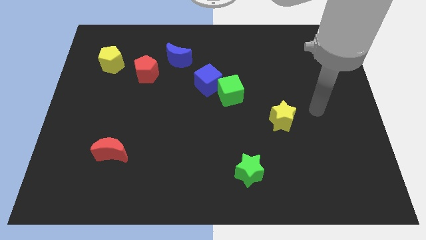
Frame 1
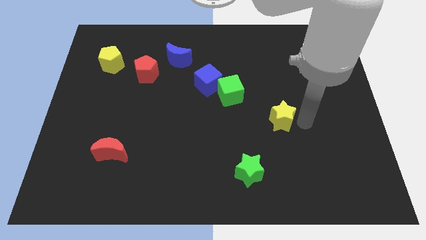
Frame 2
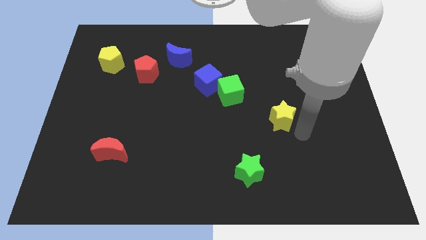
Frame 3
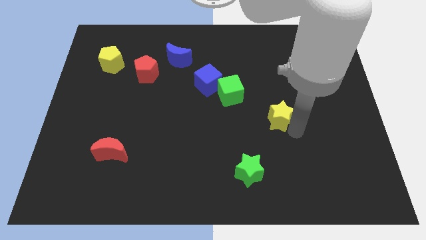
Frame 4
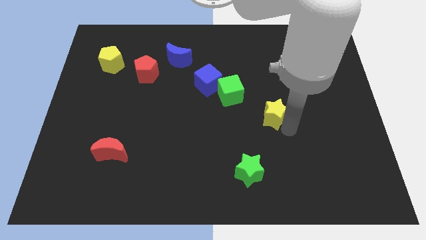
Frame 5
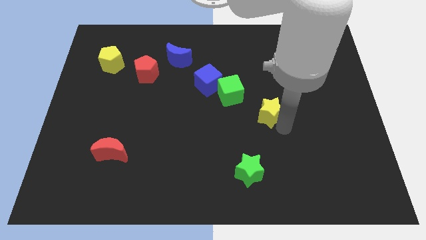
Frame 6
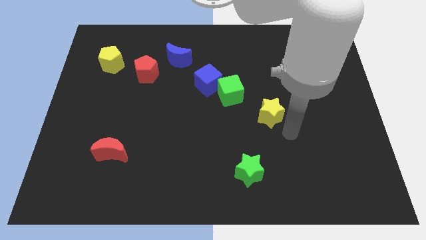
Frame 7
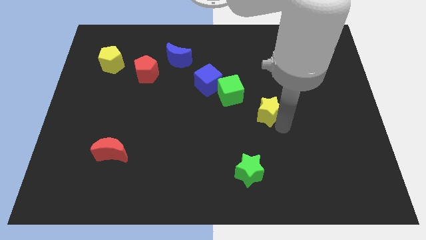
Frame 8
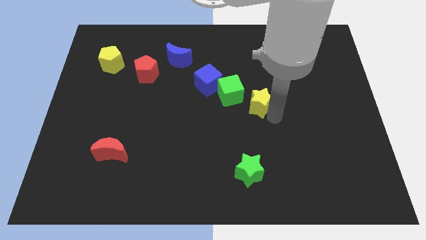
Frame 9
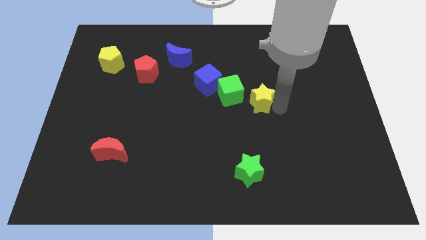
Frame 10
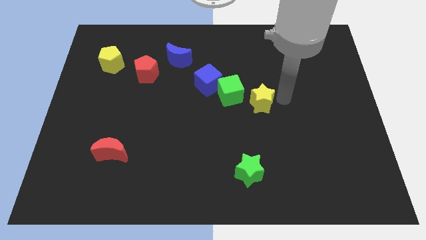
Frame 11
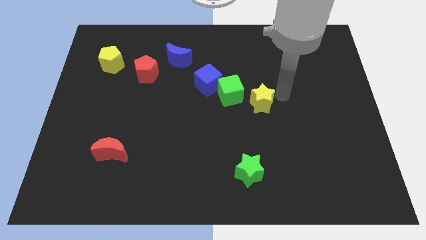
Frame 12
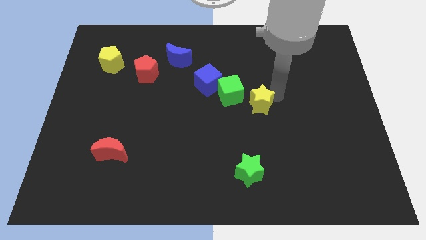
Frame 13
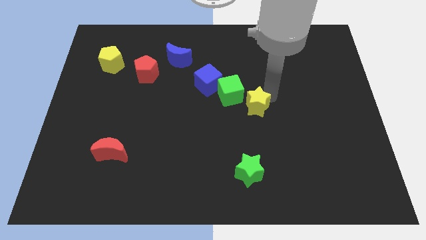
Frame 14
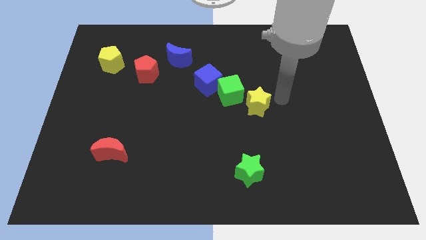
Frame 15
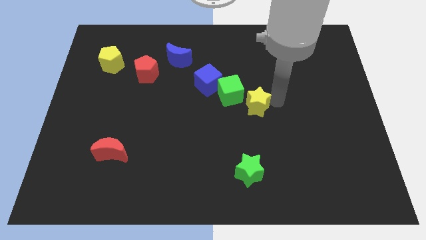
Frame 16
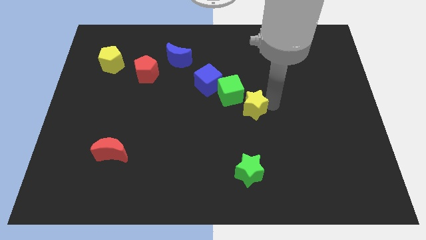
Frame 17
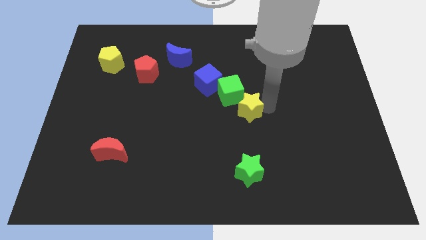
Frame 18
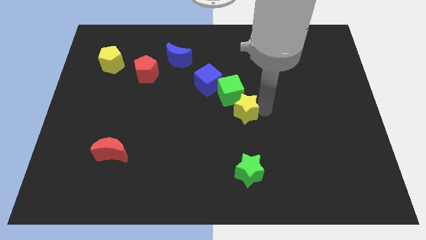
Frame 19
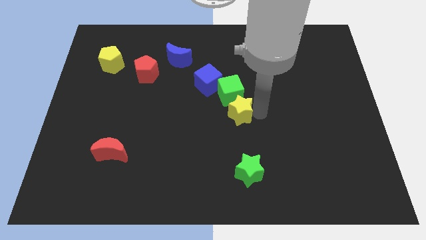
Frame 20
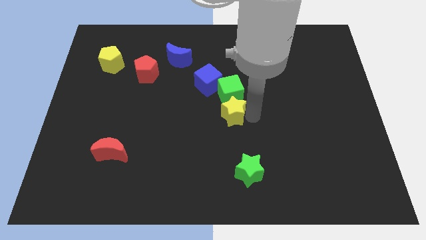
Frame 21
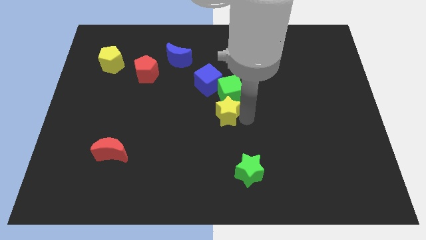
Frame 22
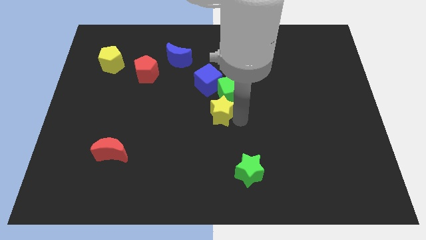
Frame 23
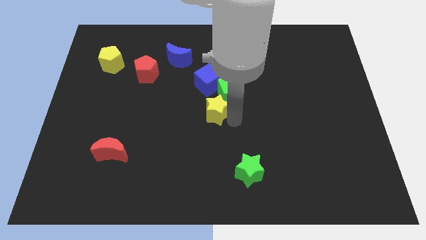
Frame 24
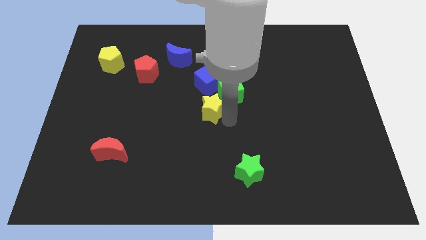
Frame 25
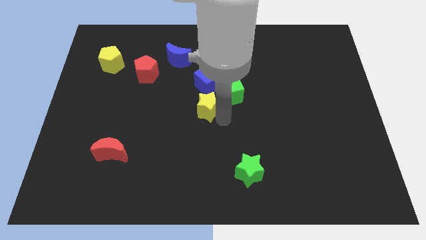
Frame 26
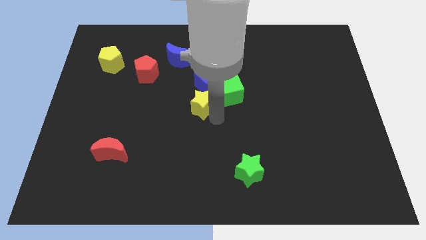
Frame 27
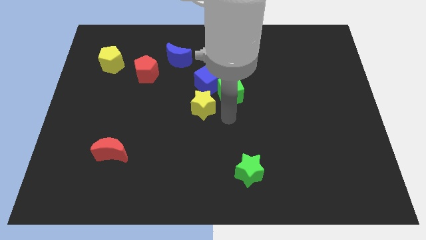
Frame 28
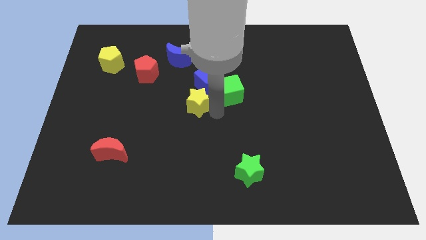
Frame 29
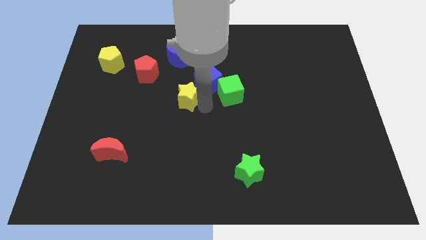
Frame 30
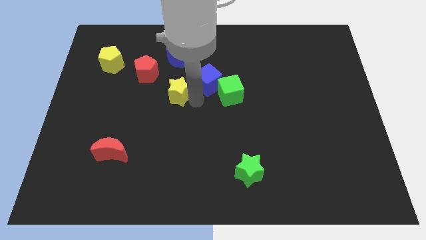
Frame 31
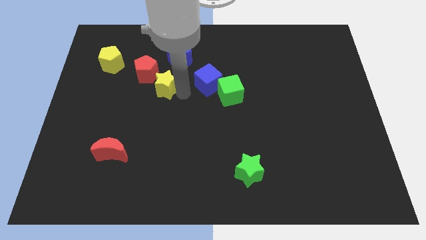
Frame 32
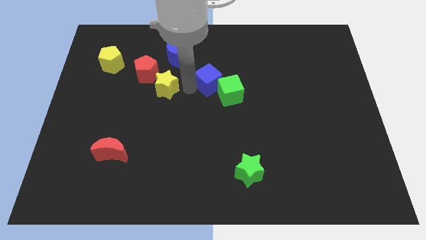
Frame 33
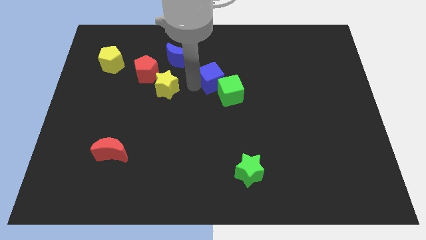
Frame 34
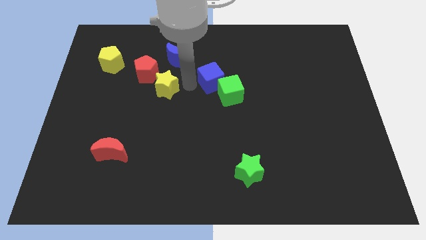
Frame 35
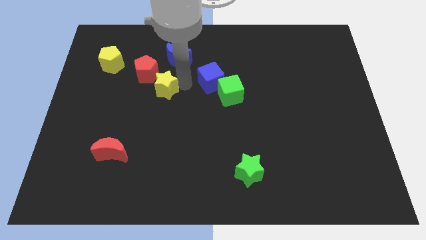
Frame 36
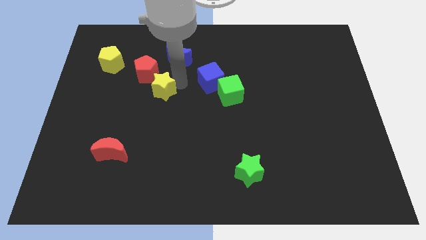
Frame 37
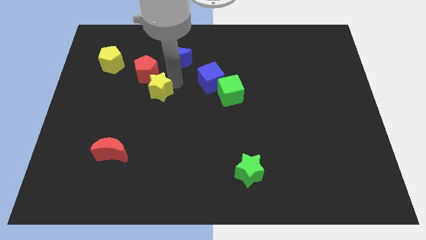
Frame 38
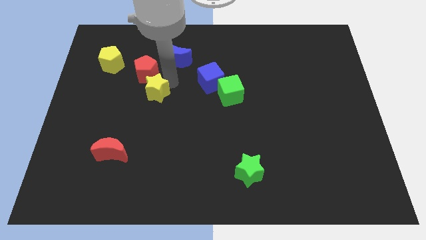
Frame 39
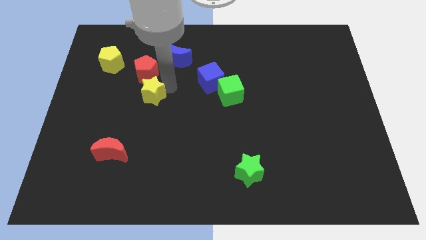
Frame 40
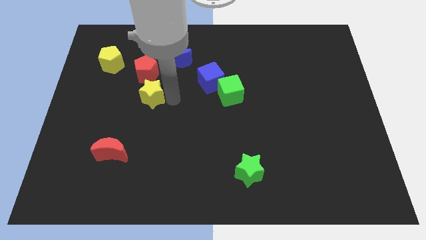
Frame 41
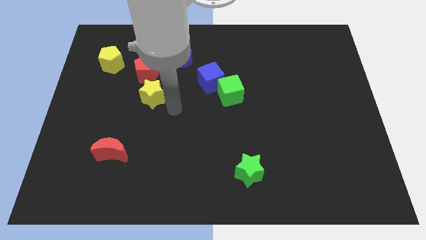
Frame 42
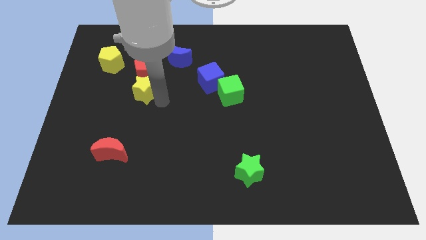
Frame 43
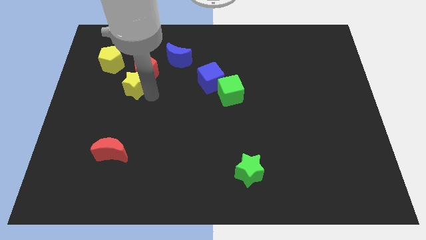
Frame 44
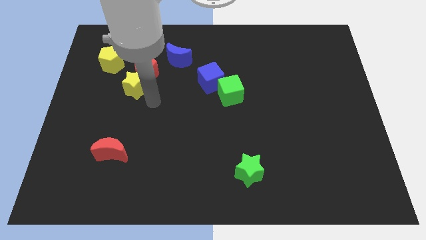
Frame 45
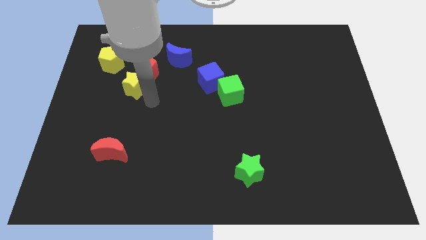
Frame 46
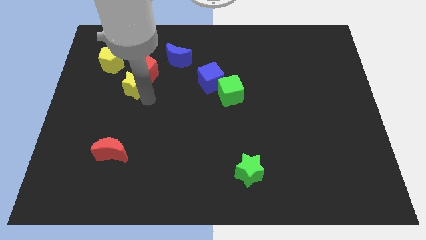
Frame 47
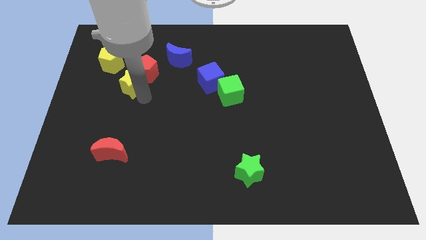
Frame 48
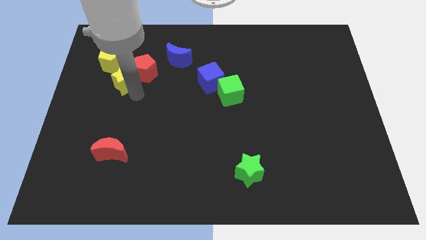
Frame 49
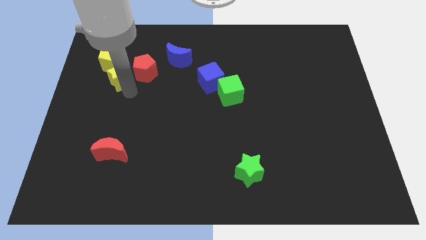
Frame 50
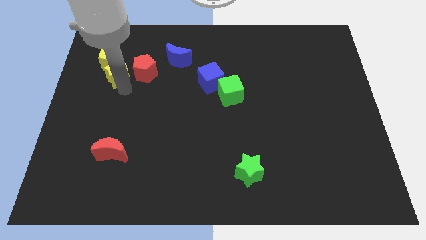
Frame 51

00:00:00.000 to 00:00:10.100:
slide the yellow star next to the yellow pentagon

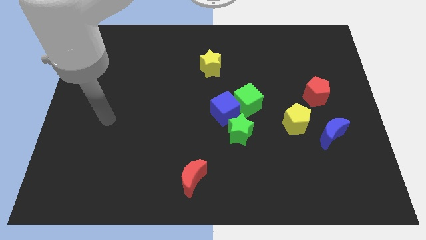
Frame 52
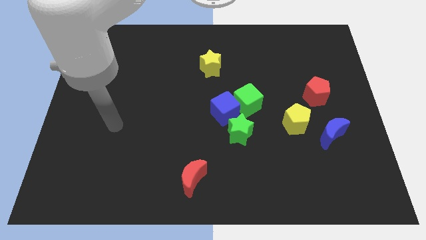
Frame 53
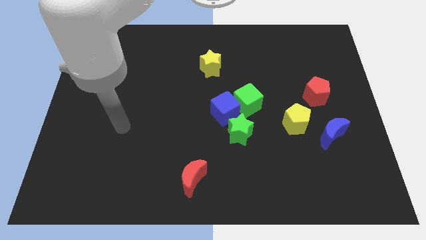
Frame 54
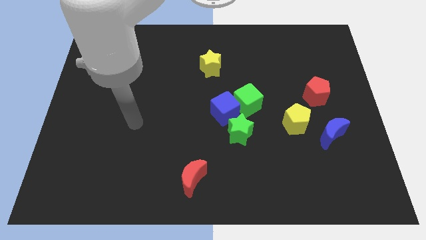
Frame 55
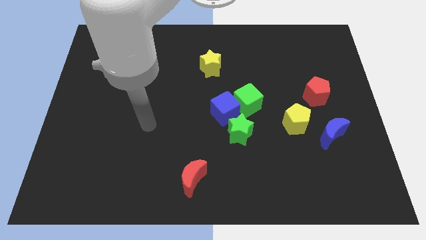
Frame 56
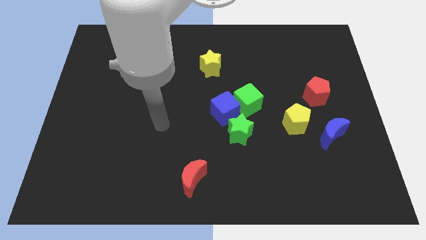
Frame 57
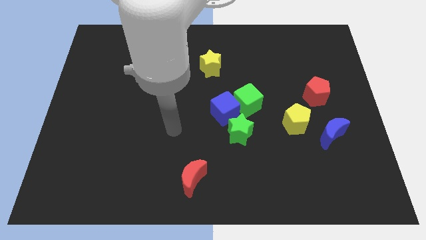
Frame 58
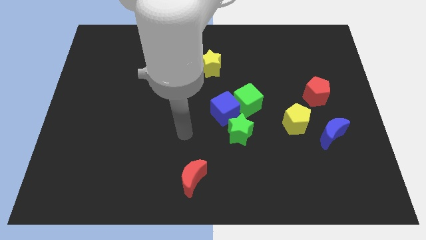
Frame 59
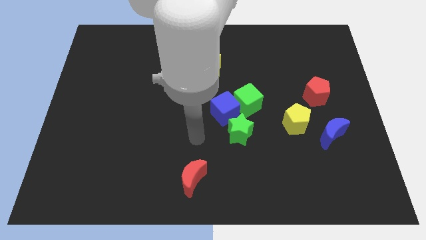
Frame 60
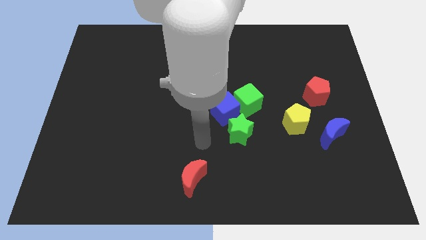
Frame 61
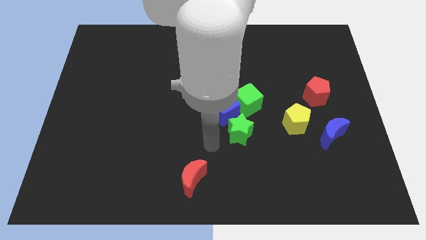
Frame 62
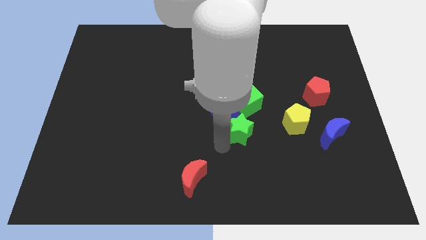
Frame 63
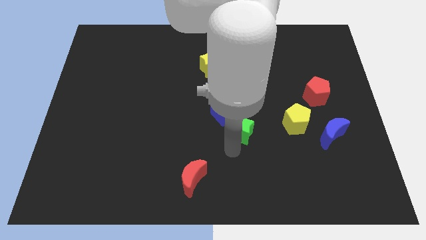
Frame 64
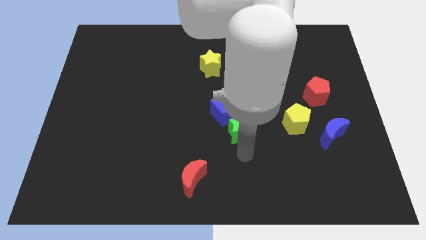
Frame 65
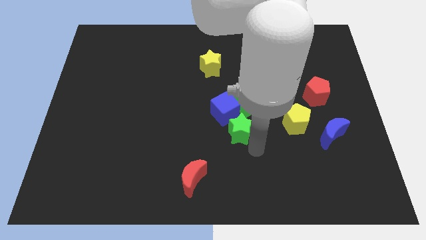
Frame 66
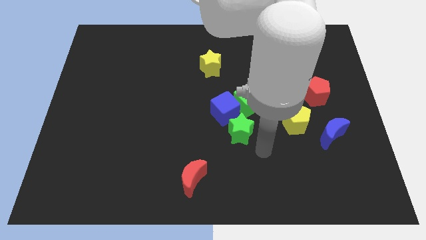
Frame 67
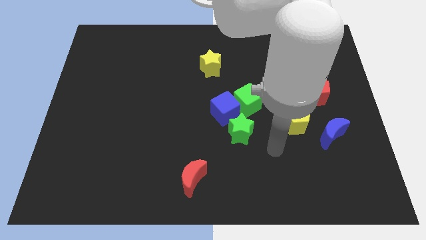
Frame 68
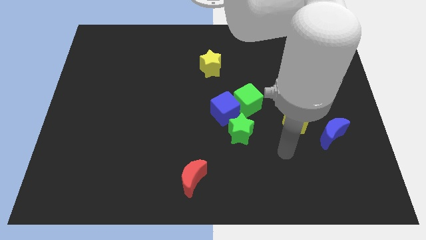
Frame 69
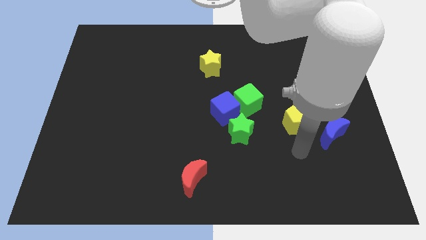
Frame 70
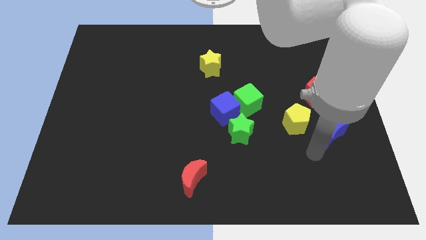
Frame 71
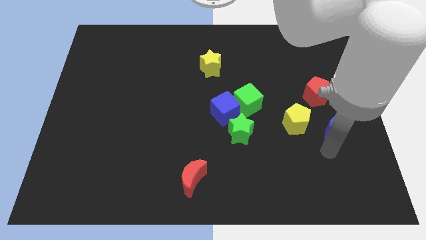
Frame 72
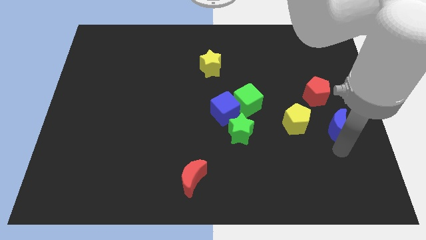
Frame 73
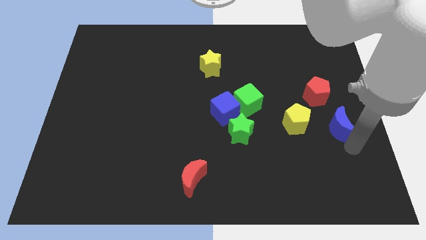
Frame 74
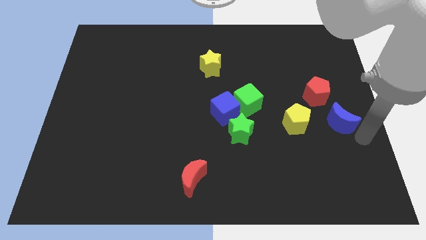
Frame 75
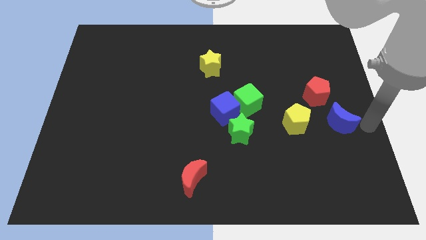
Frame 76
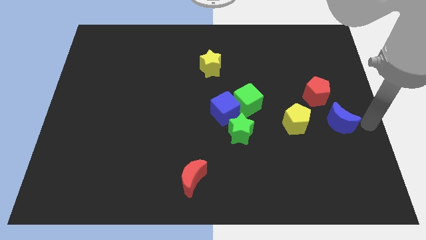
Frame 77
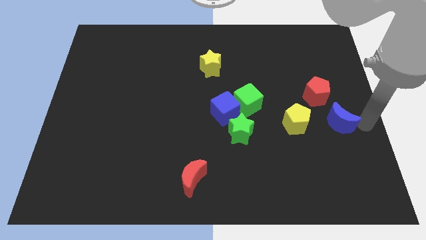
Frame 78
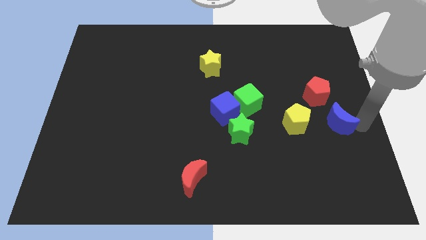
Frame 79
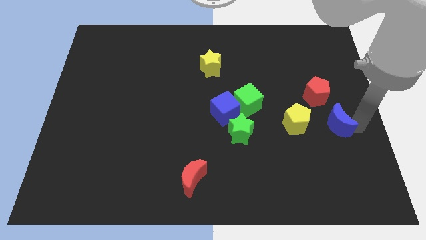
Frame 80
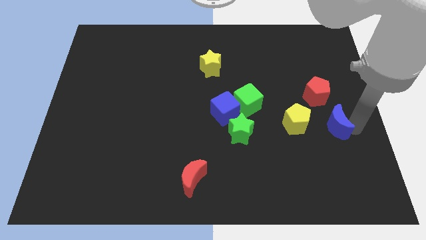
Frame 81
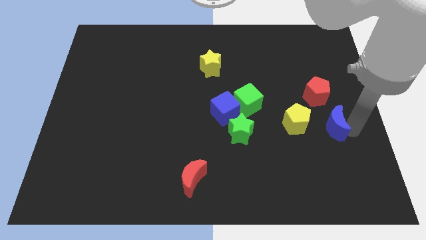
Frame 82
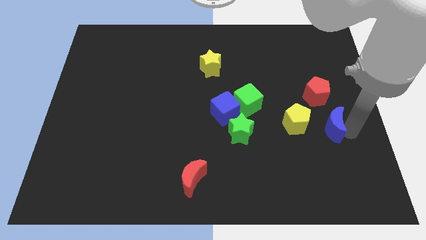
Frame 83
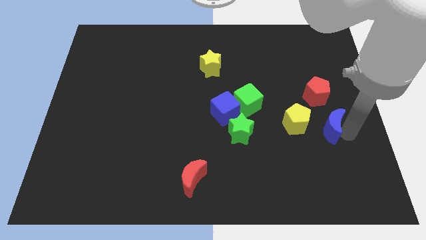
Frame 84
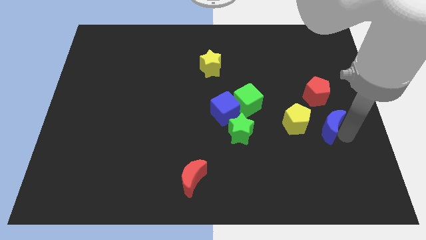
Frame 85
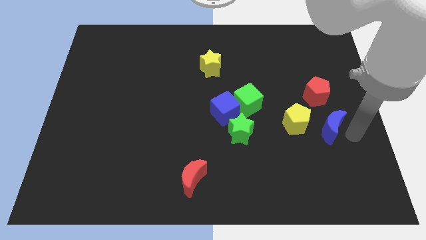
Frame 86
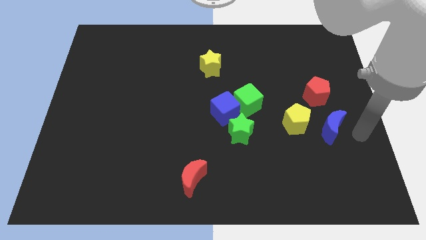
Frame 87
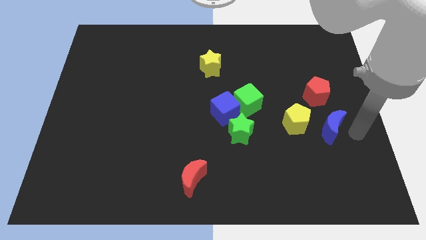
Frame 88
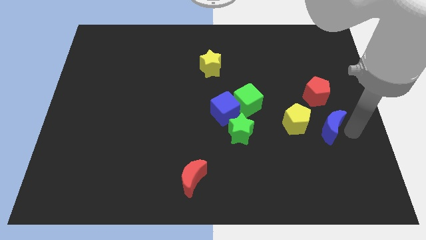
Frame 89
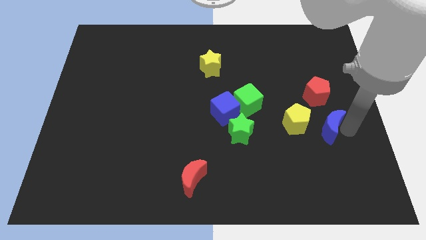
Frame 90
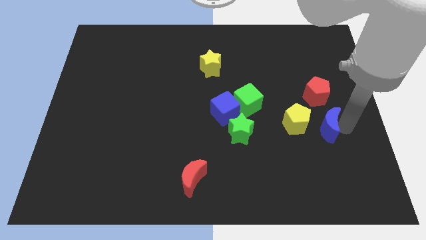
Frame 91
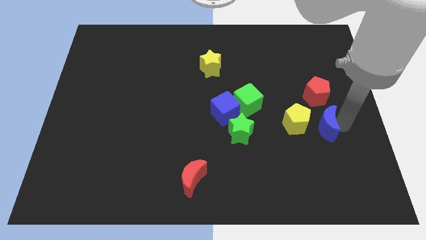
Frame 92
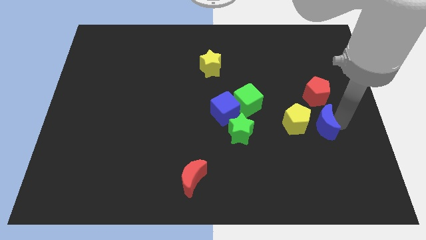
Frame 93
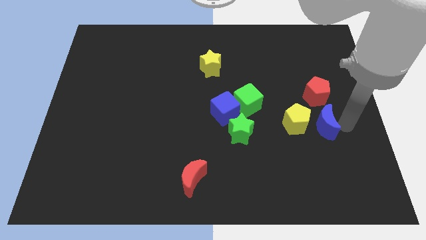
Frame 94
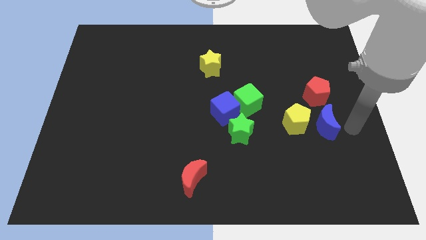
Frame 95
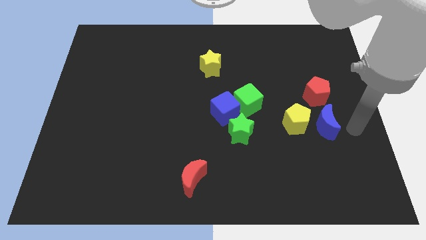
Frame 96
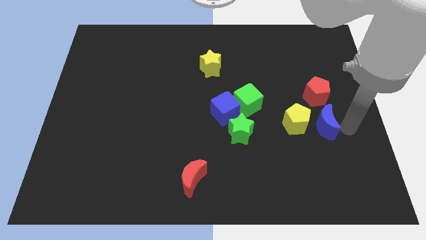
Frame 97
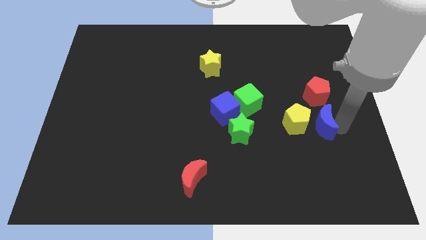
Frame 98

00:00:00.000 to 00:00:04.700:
put the blue moon to the yellow pentagon
